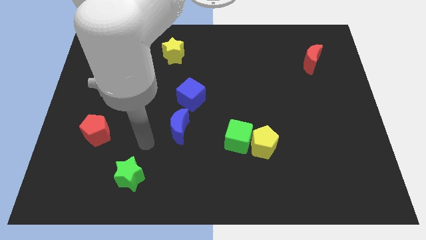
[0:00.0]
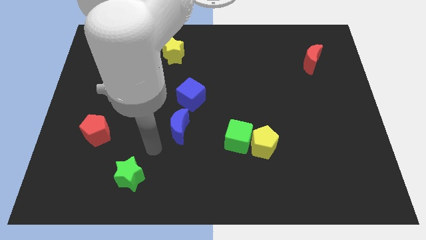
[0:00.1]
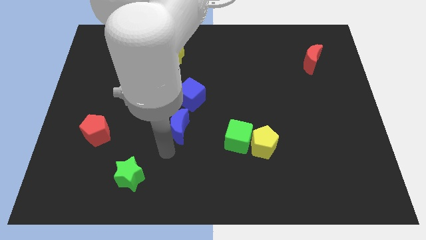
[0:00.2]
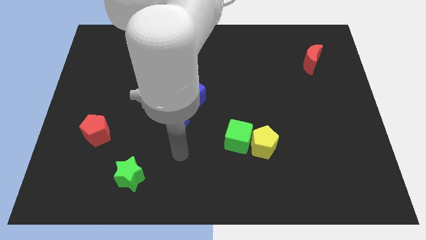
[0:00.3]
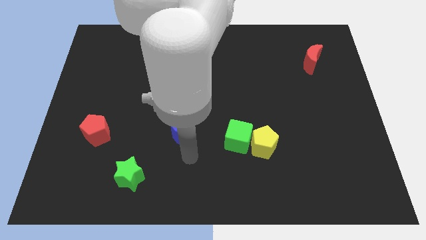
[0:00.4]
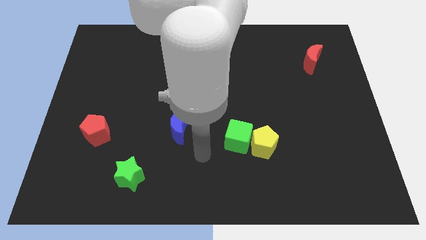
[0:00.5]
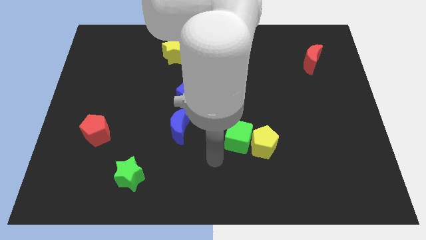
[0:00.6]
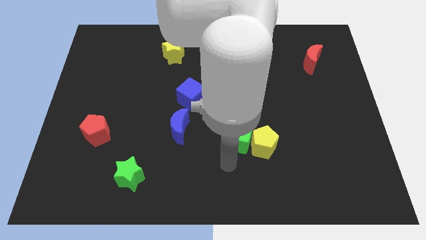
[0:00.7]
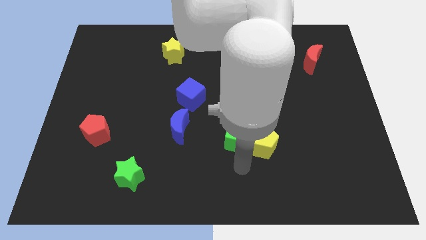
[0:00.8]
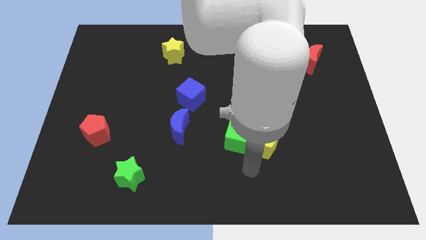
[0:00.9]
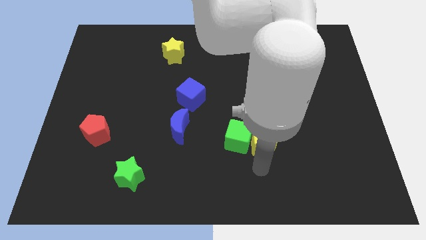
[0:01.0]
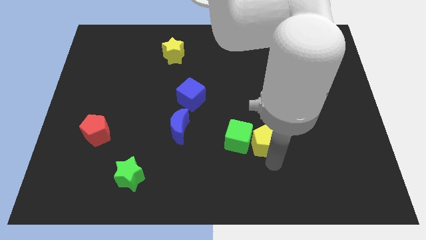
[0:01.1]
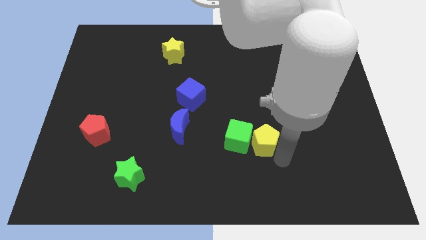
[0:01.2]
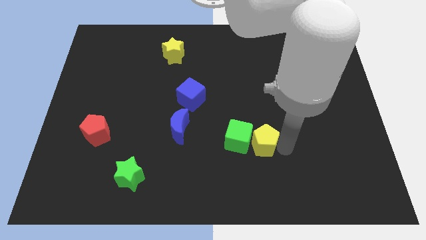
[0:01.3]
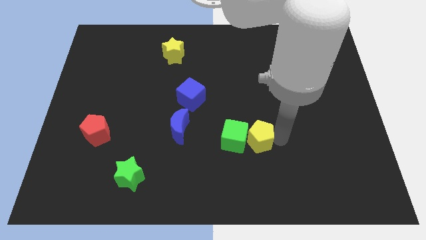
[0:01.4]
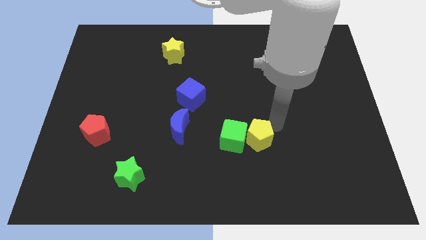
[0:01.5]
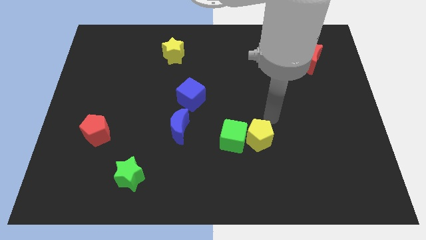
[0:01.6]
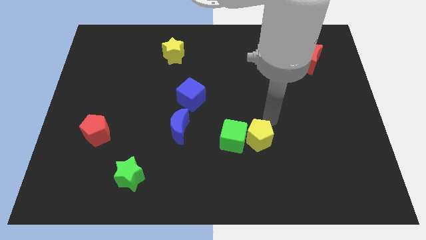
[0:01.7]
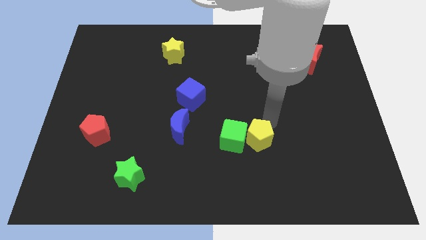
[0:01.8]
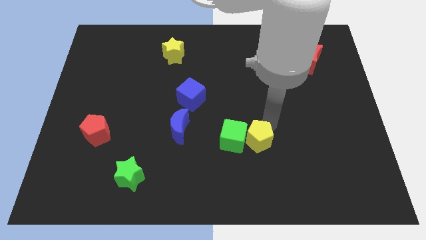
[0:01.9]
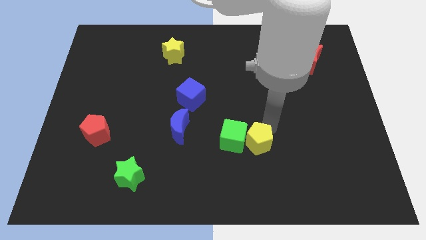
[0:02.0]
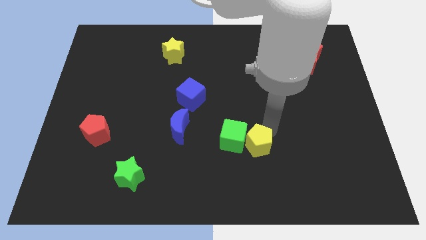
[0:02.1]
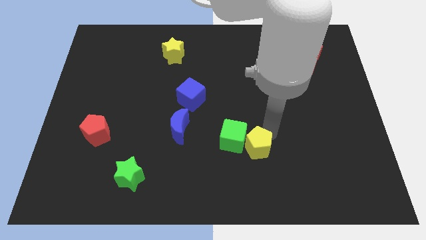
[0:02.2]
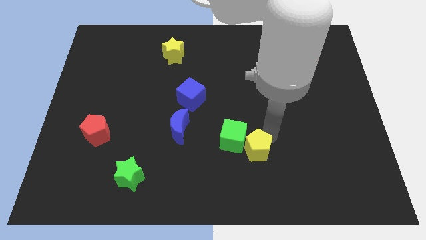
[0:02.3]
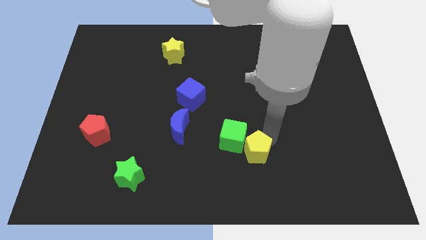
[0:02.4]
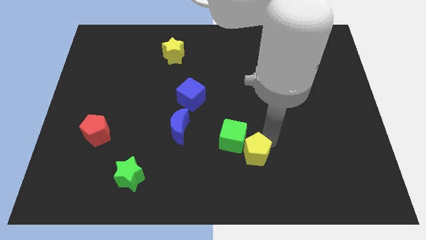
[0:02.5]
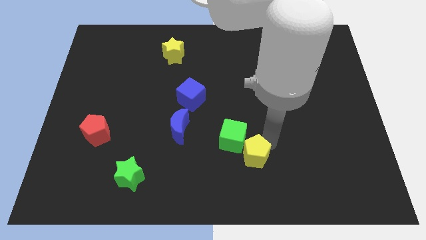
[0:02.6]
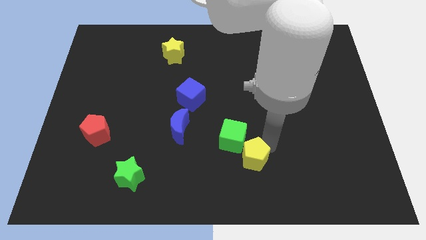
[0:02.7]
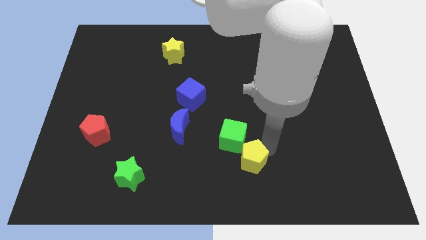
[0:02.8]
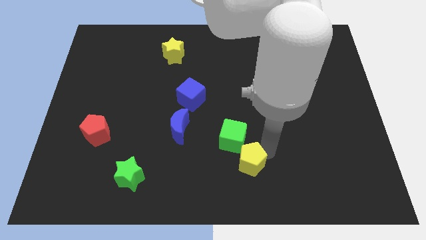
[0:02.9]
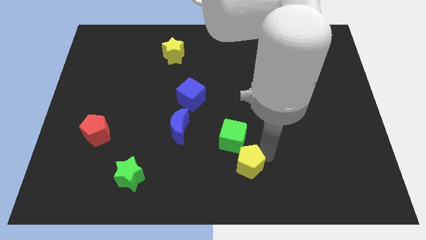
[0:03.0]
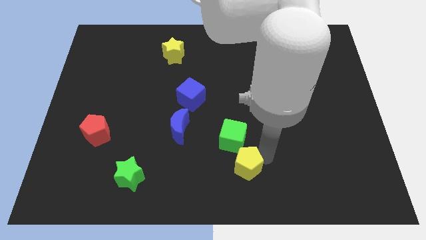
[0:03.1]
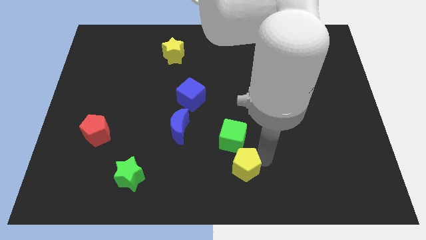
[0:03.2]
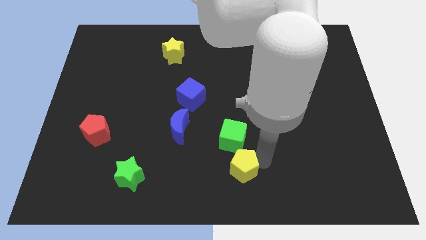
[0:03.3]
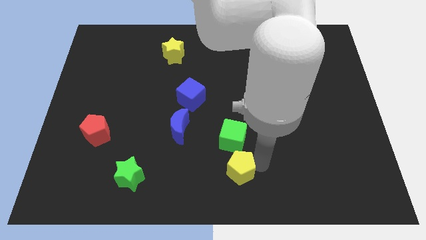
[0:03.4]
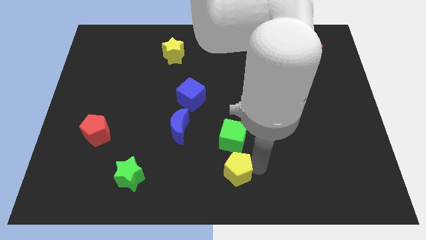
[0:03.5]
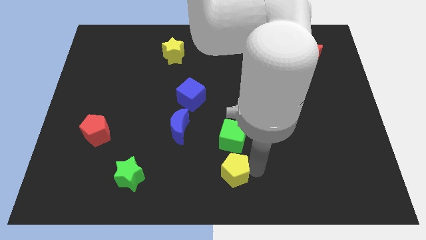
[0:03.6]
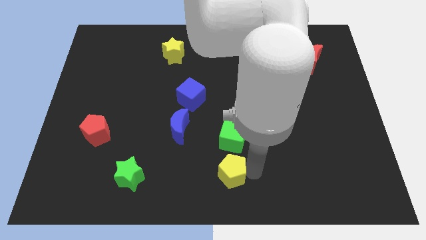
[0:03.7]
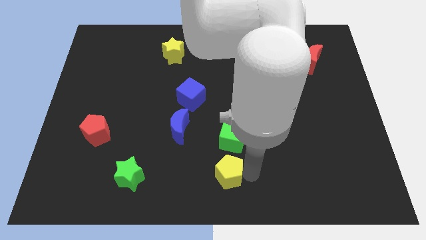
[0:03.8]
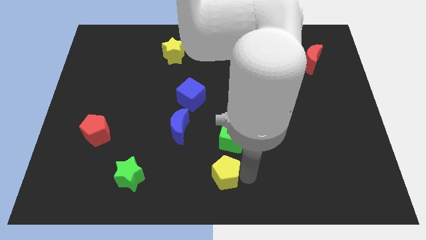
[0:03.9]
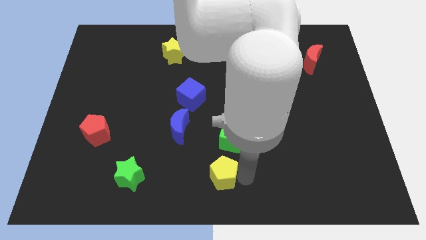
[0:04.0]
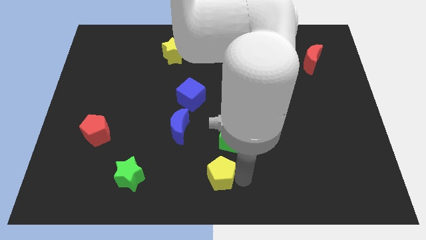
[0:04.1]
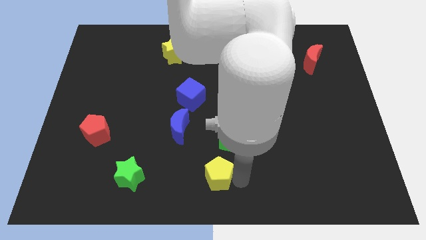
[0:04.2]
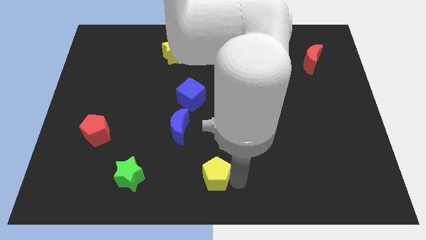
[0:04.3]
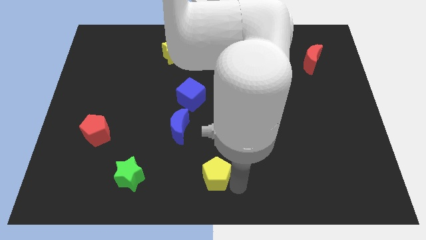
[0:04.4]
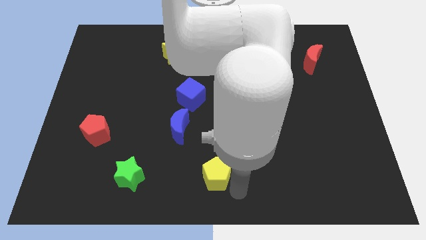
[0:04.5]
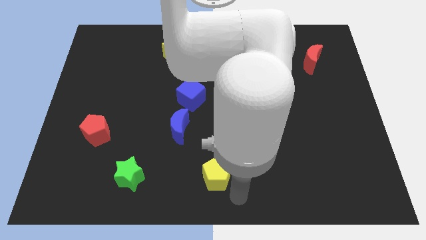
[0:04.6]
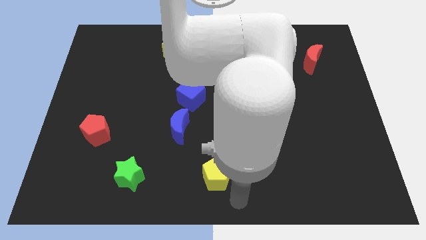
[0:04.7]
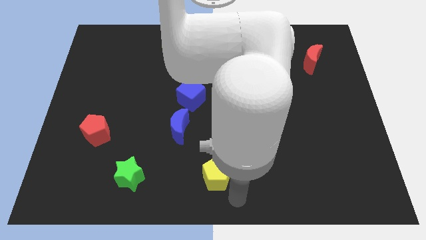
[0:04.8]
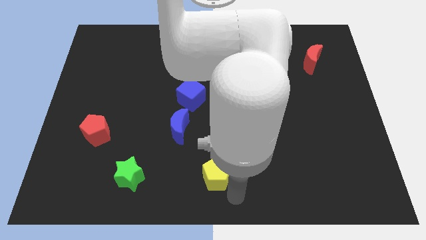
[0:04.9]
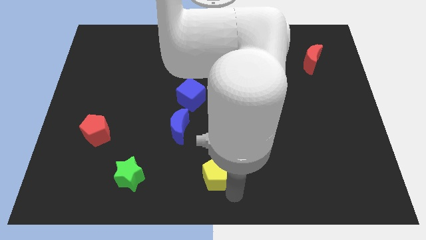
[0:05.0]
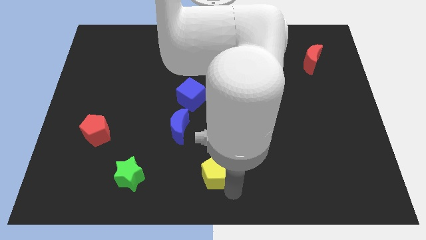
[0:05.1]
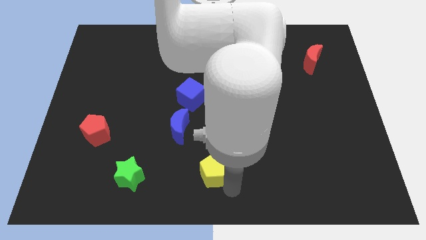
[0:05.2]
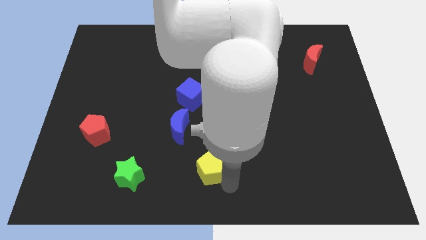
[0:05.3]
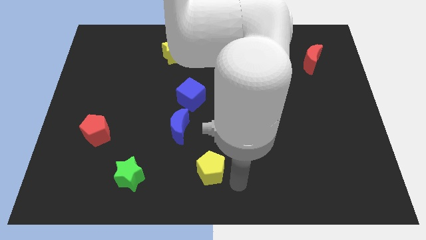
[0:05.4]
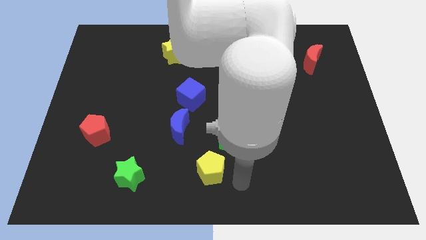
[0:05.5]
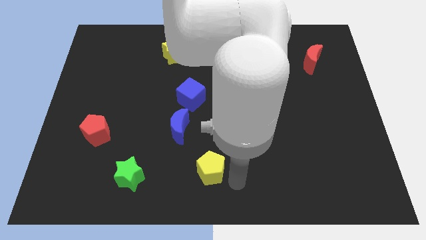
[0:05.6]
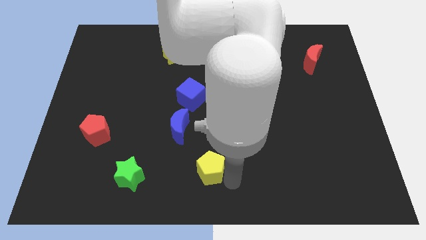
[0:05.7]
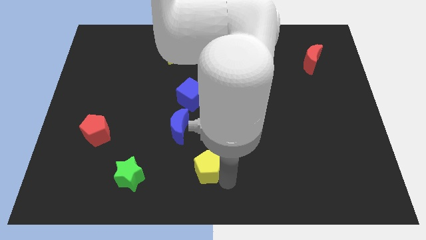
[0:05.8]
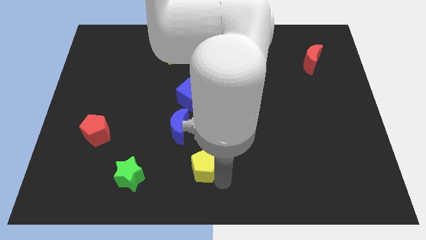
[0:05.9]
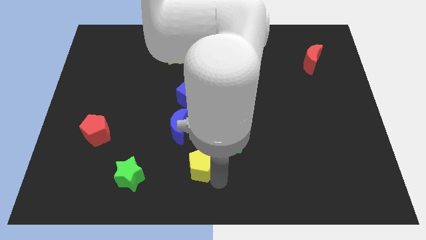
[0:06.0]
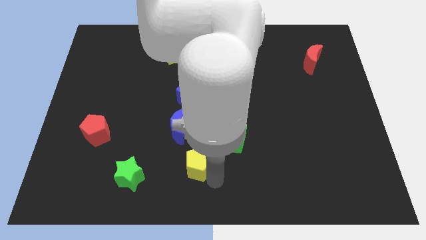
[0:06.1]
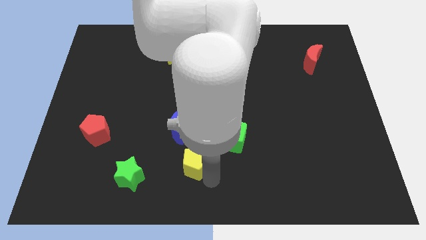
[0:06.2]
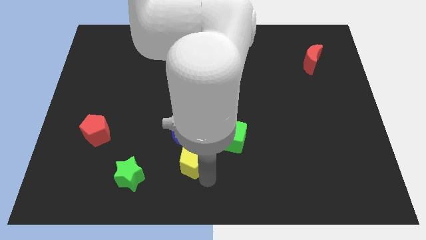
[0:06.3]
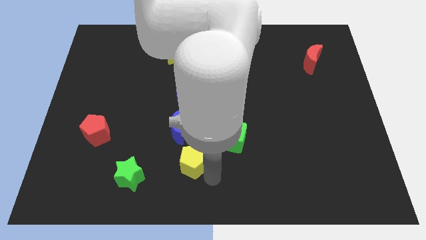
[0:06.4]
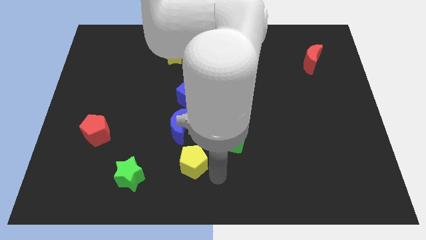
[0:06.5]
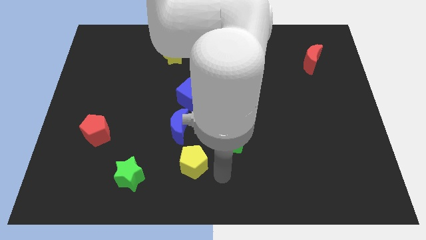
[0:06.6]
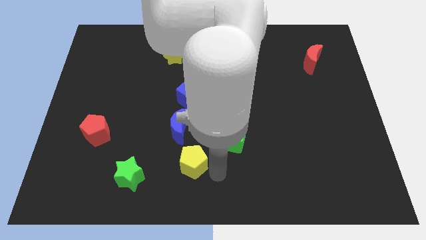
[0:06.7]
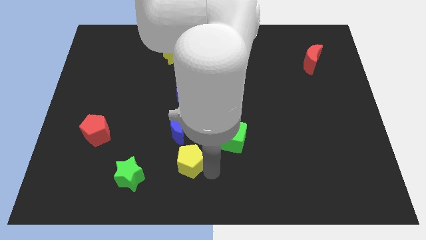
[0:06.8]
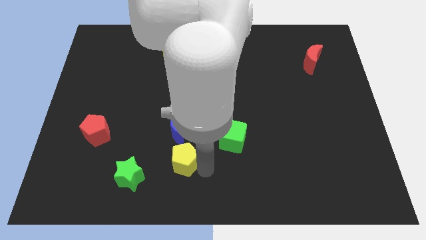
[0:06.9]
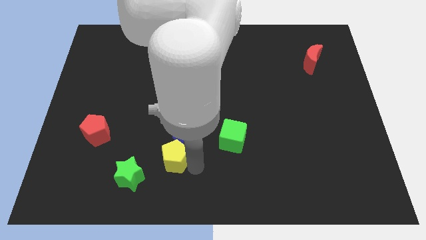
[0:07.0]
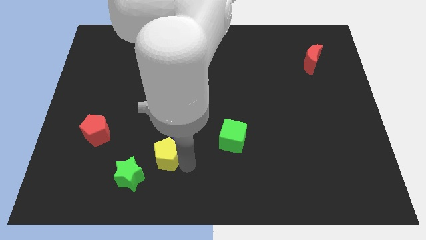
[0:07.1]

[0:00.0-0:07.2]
move the yellow pentagon to the bottom left side of the blue moon

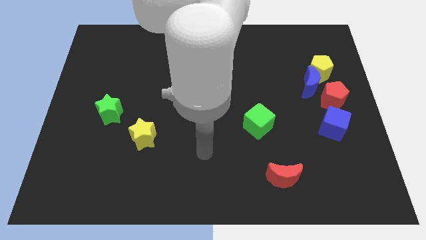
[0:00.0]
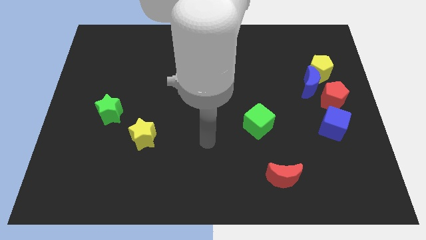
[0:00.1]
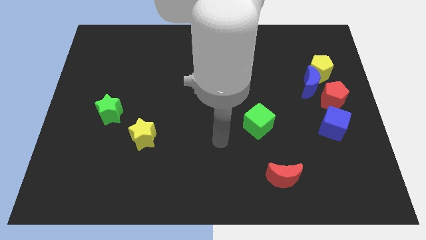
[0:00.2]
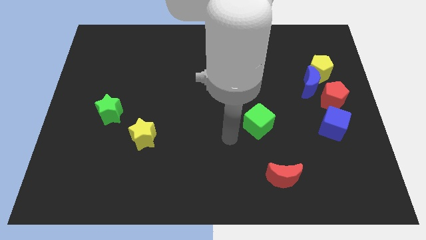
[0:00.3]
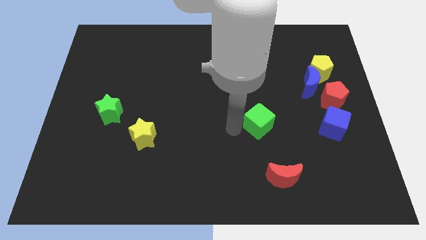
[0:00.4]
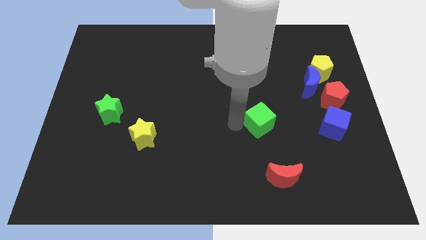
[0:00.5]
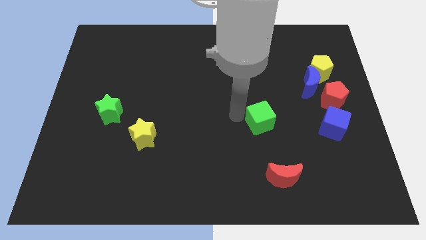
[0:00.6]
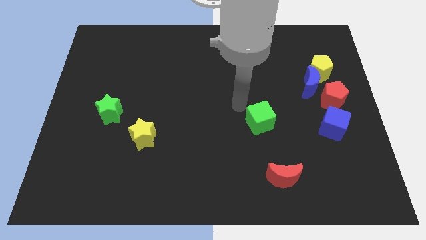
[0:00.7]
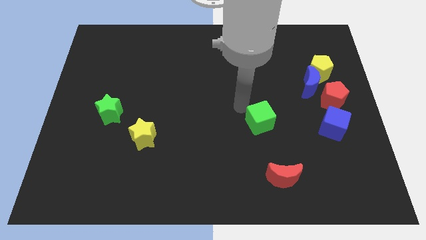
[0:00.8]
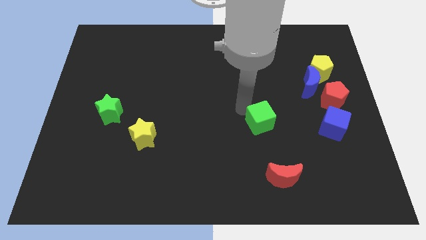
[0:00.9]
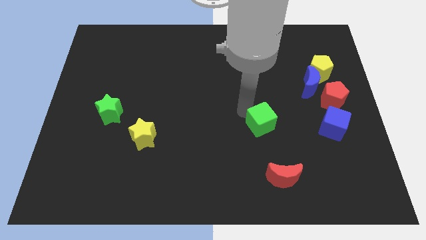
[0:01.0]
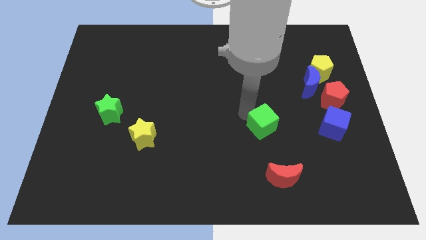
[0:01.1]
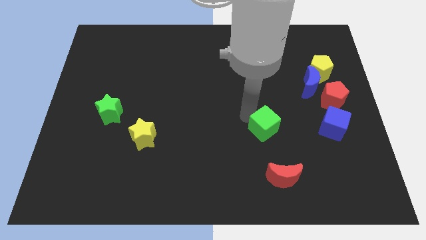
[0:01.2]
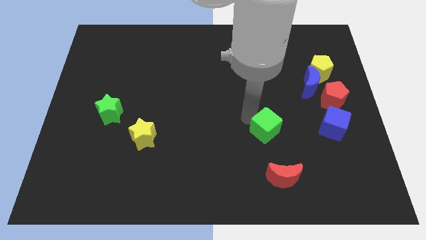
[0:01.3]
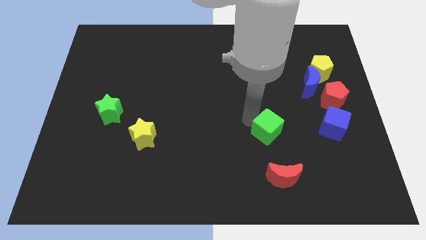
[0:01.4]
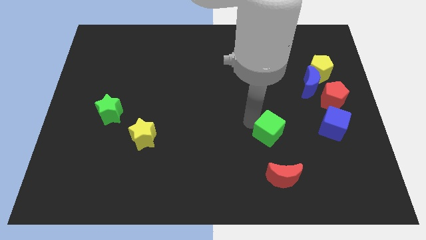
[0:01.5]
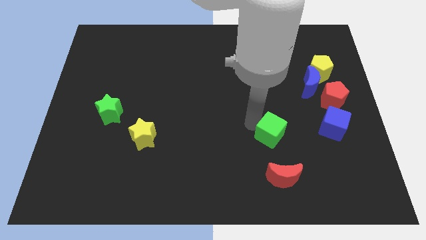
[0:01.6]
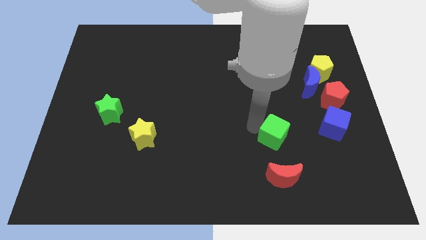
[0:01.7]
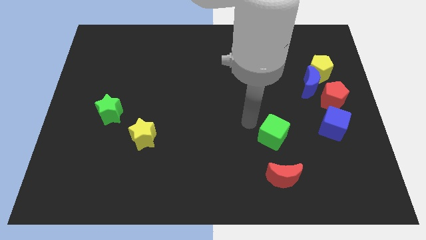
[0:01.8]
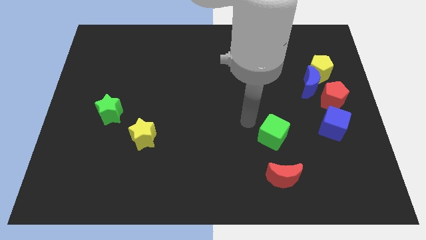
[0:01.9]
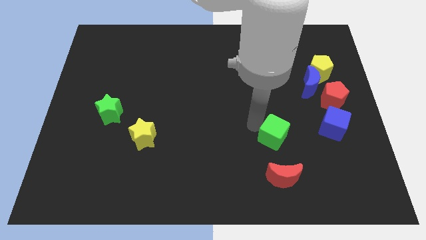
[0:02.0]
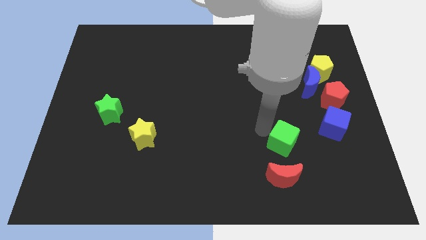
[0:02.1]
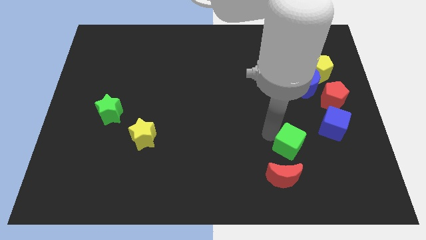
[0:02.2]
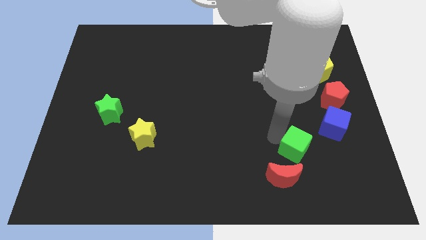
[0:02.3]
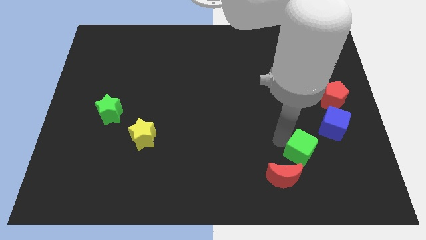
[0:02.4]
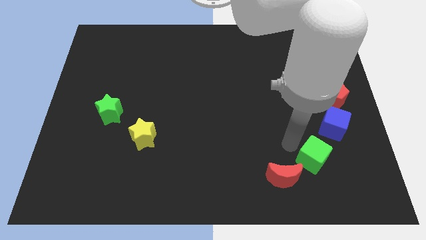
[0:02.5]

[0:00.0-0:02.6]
push the green cube to the right of the red moon
